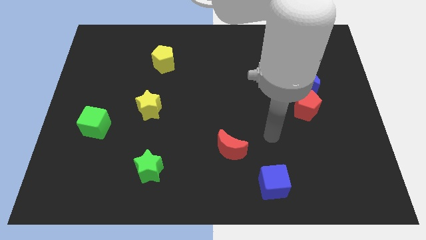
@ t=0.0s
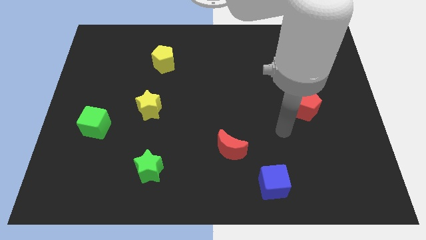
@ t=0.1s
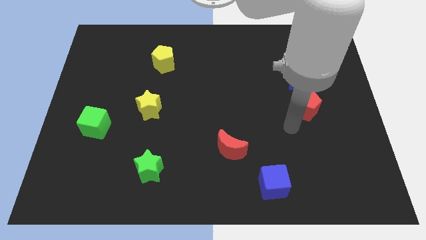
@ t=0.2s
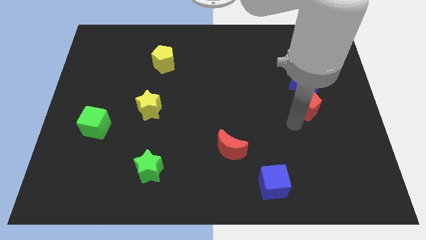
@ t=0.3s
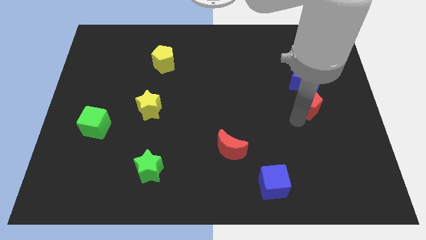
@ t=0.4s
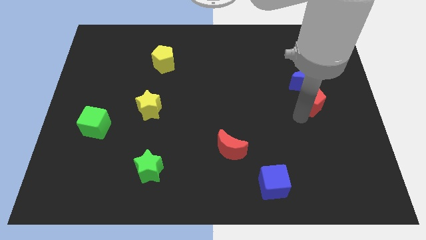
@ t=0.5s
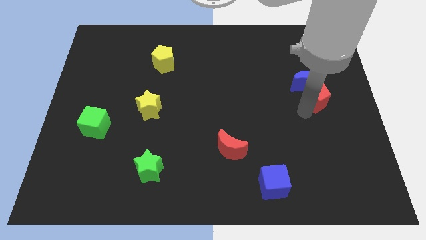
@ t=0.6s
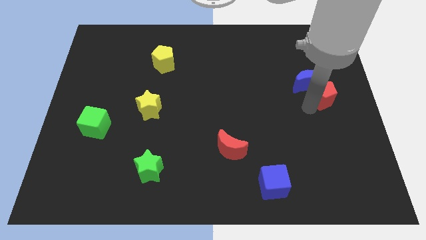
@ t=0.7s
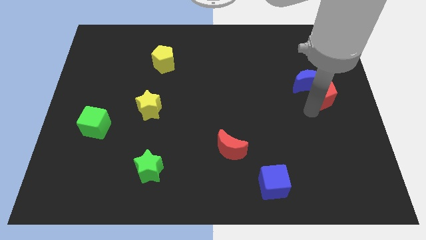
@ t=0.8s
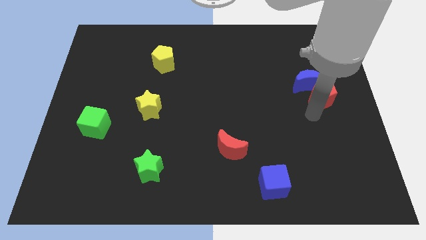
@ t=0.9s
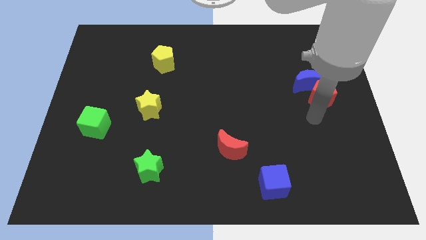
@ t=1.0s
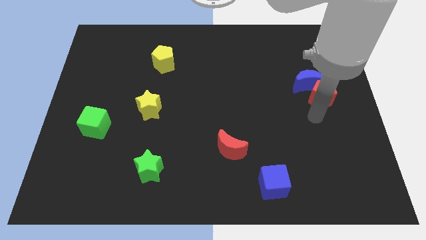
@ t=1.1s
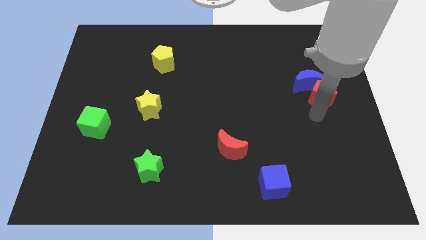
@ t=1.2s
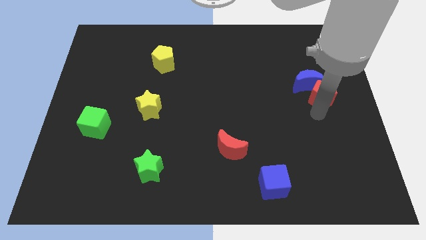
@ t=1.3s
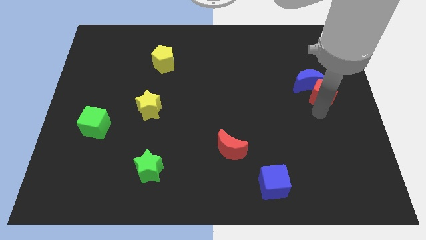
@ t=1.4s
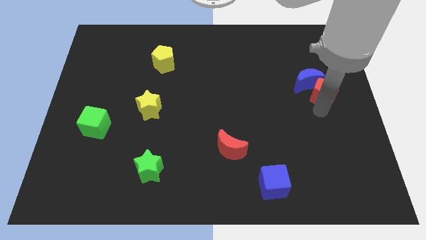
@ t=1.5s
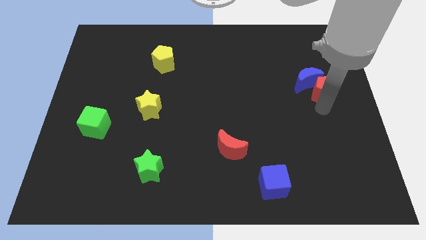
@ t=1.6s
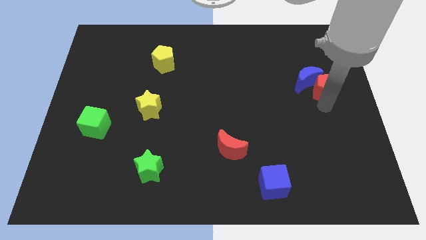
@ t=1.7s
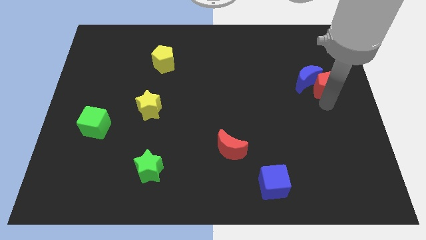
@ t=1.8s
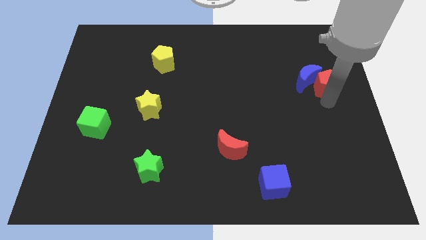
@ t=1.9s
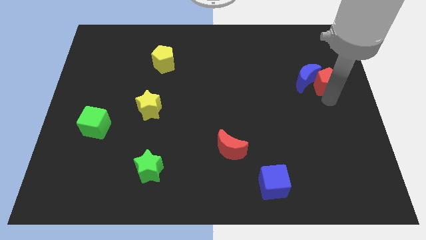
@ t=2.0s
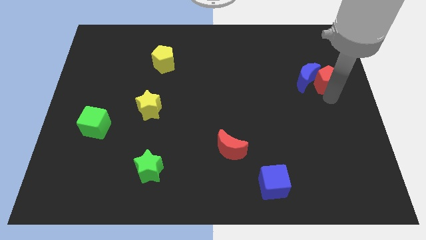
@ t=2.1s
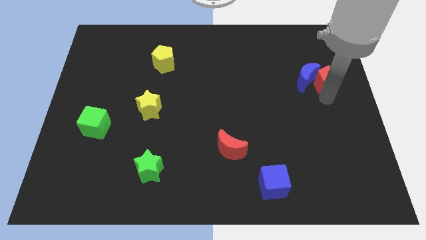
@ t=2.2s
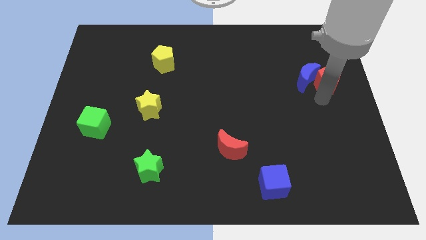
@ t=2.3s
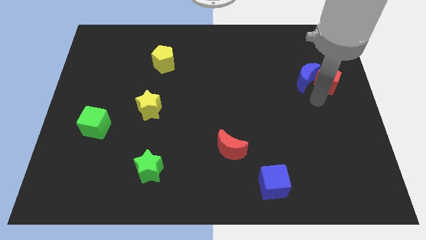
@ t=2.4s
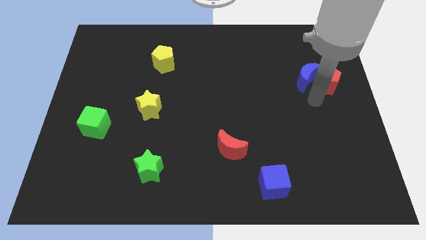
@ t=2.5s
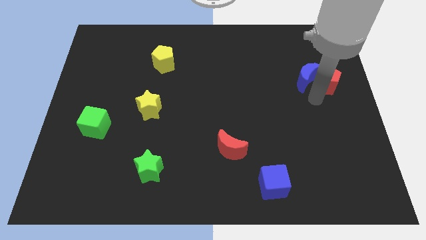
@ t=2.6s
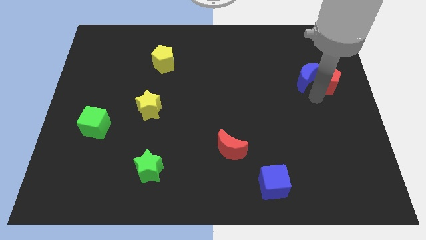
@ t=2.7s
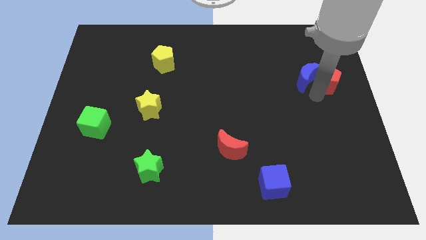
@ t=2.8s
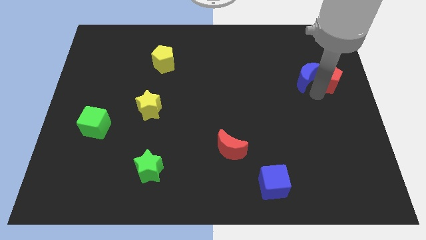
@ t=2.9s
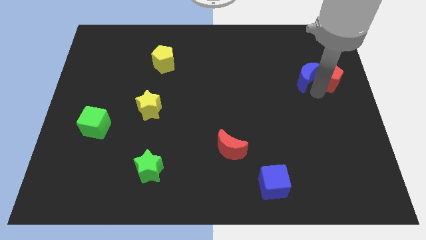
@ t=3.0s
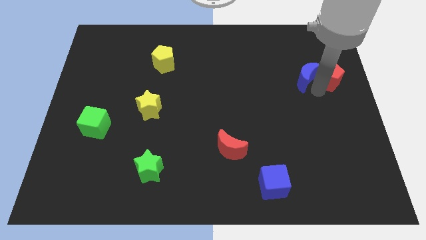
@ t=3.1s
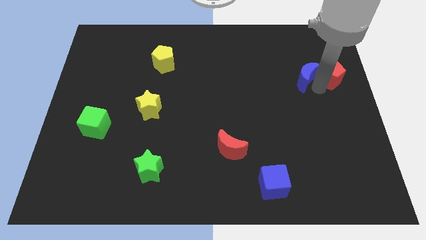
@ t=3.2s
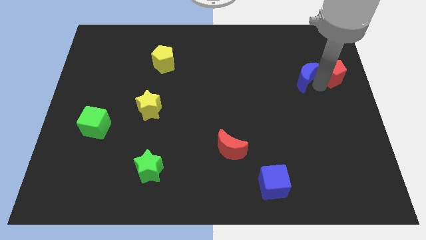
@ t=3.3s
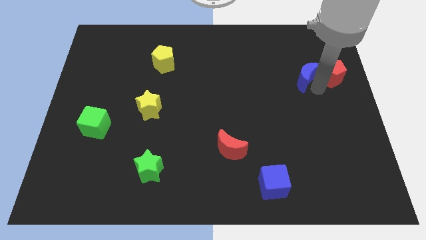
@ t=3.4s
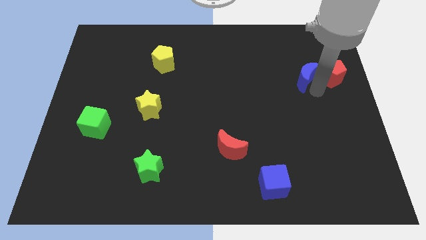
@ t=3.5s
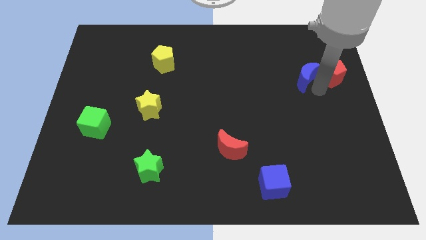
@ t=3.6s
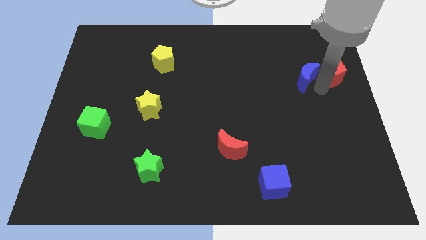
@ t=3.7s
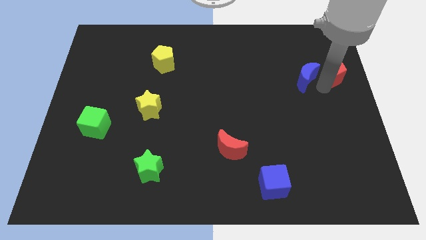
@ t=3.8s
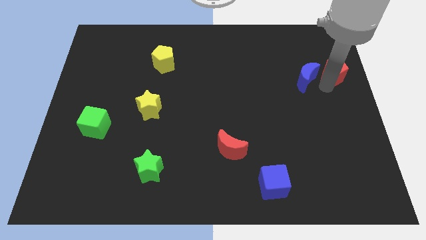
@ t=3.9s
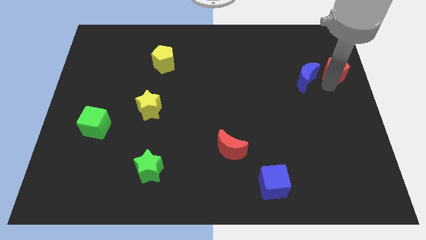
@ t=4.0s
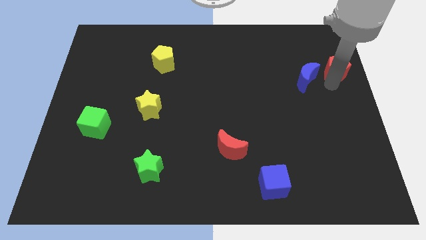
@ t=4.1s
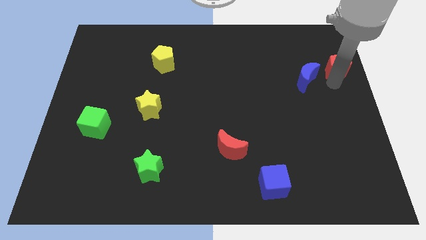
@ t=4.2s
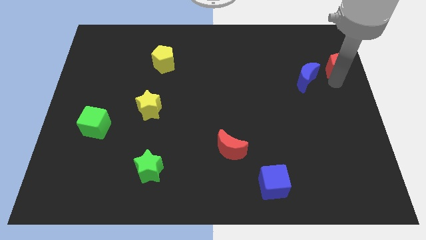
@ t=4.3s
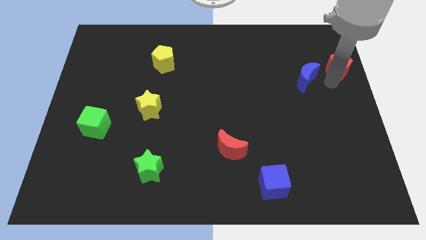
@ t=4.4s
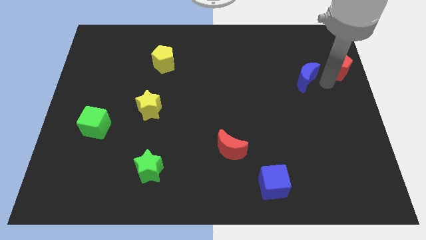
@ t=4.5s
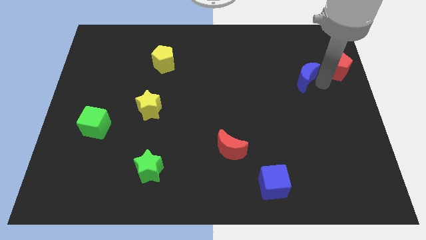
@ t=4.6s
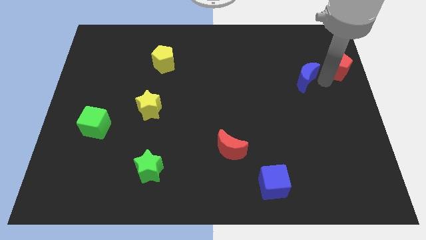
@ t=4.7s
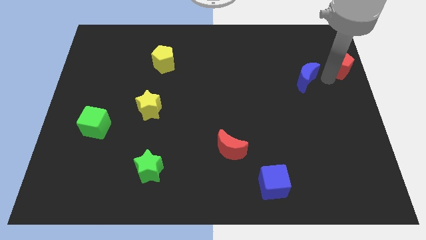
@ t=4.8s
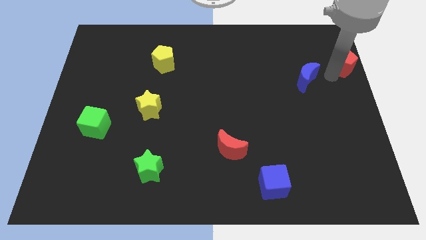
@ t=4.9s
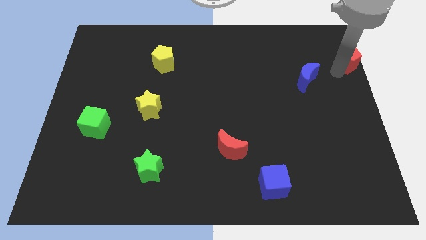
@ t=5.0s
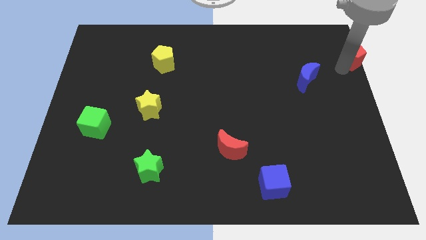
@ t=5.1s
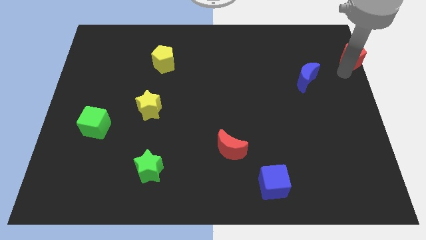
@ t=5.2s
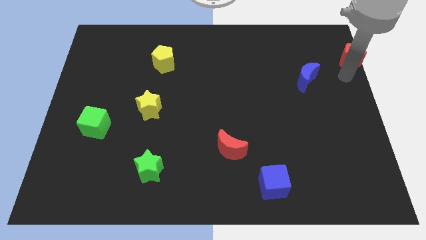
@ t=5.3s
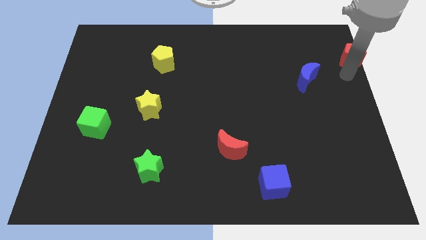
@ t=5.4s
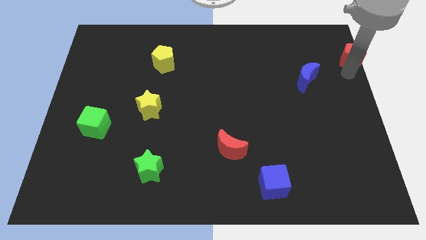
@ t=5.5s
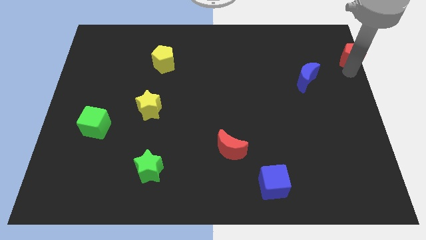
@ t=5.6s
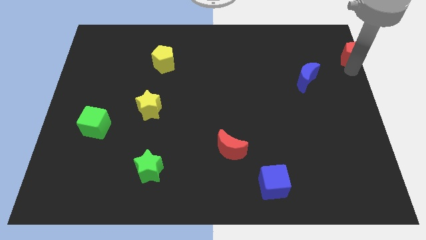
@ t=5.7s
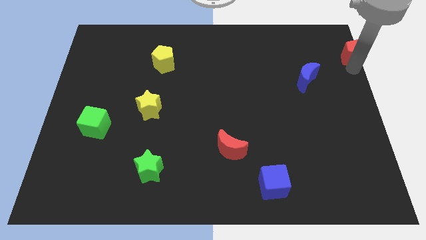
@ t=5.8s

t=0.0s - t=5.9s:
move the red pentagon to the upper right corner

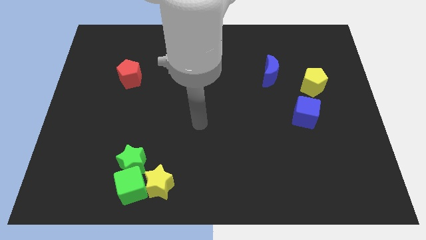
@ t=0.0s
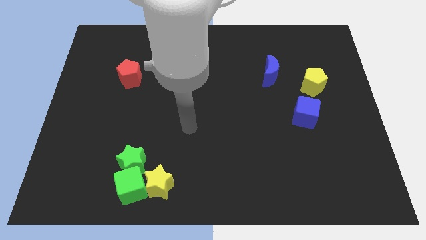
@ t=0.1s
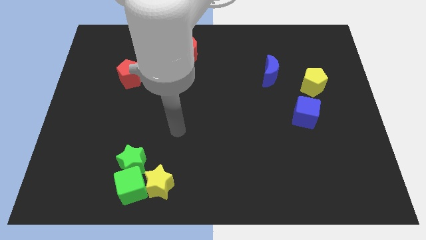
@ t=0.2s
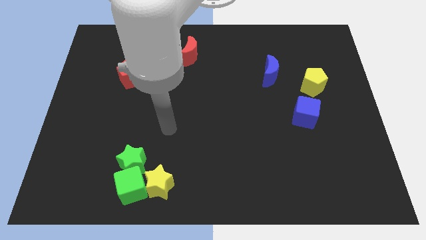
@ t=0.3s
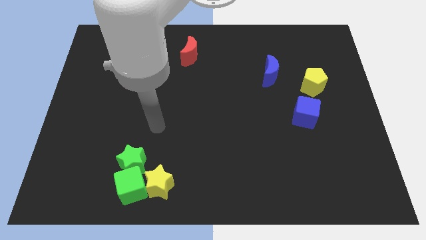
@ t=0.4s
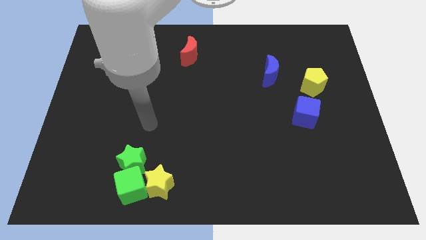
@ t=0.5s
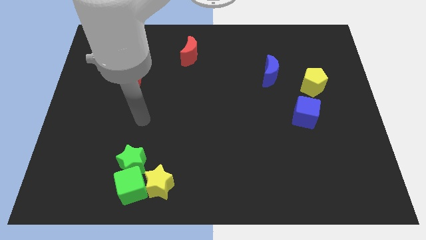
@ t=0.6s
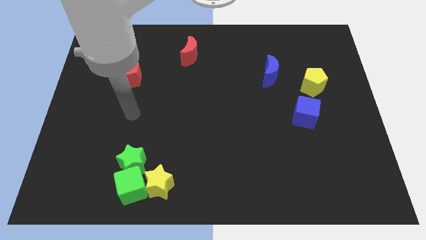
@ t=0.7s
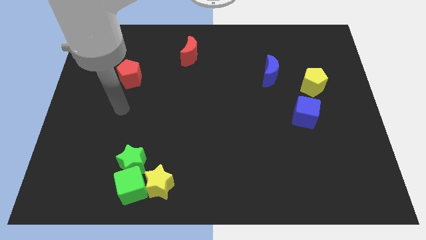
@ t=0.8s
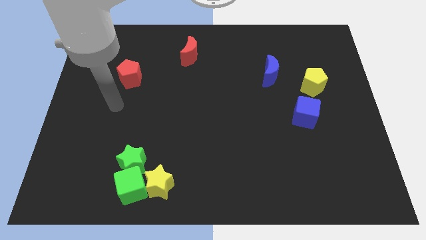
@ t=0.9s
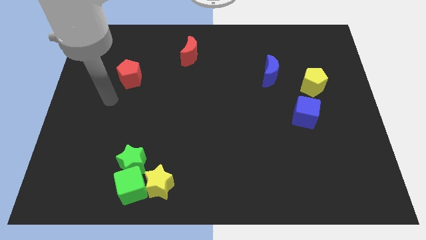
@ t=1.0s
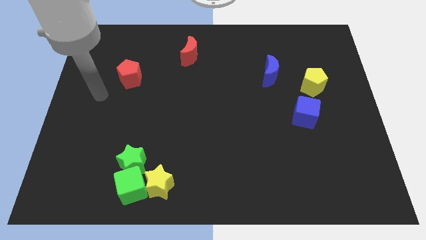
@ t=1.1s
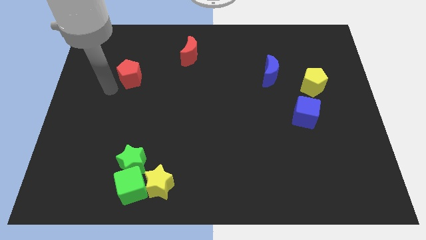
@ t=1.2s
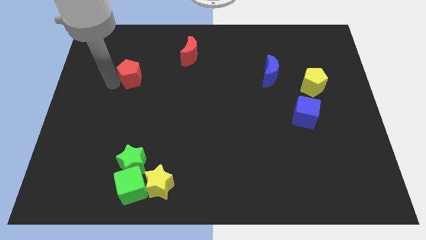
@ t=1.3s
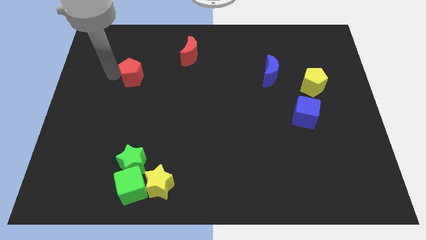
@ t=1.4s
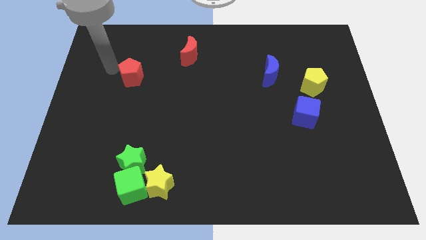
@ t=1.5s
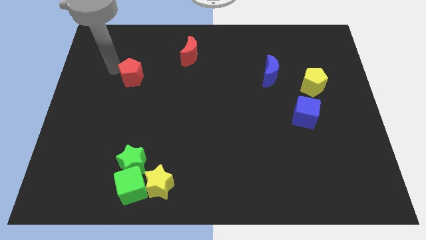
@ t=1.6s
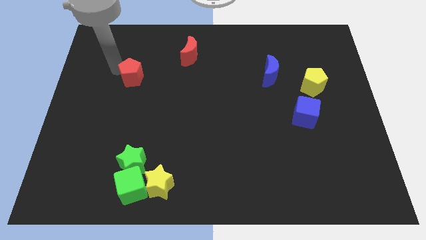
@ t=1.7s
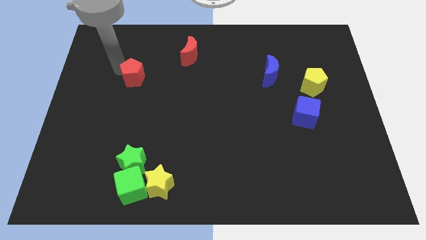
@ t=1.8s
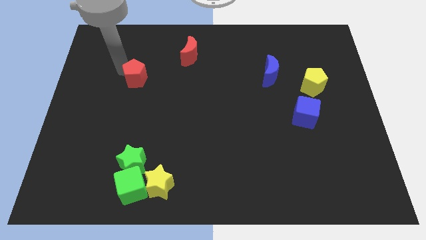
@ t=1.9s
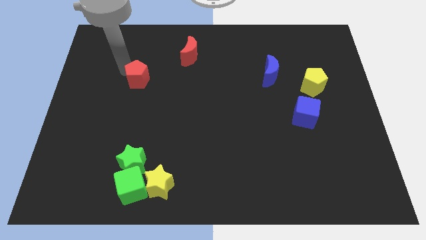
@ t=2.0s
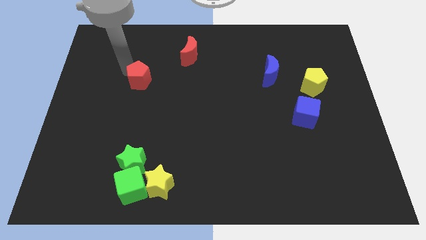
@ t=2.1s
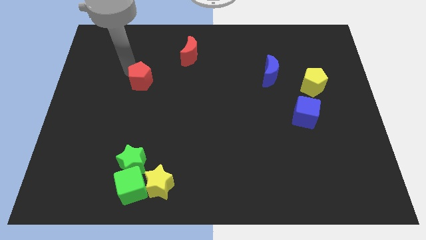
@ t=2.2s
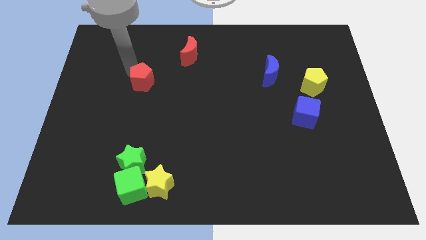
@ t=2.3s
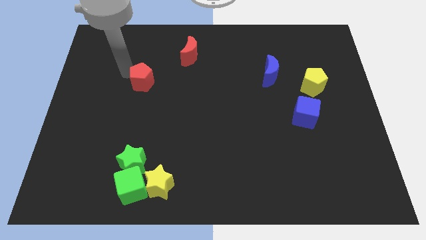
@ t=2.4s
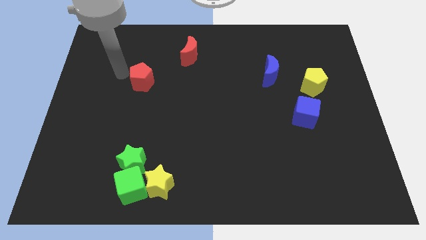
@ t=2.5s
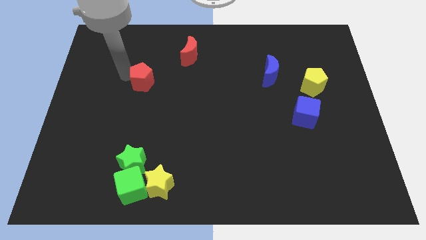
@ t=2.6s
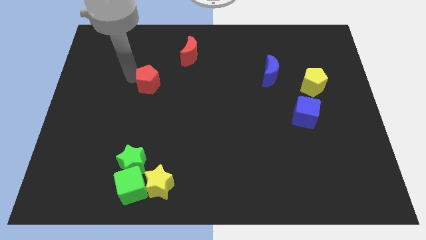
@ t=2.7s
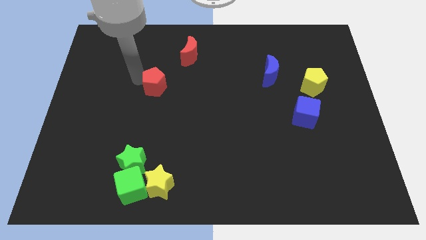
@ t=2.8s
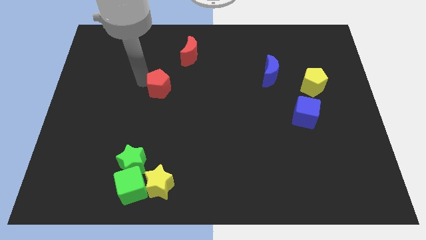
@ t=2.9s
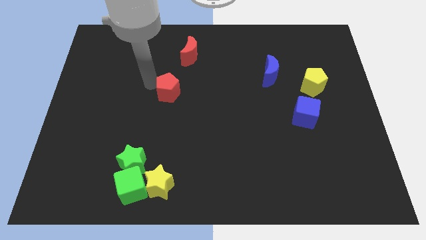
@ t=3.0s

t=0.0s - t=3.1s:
slide the red pentagon to the middle of the board
